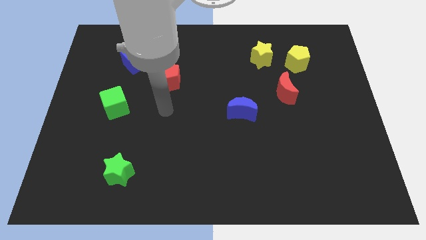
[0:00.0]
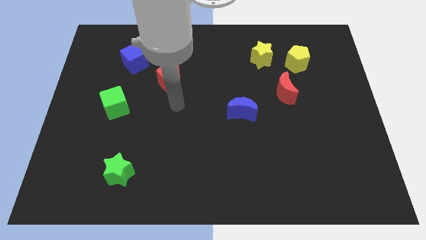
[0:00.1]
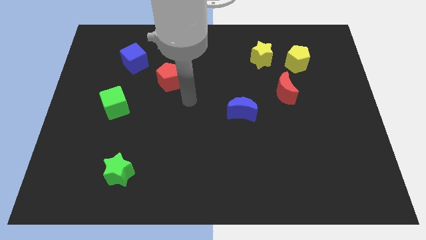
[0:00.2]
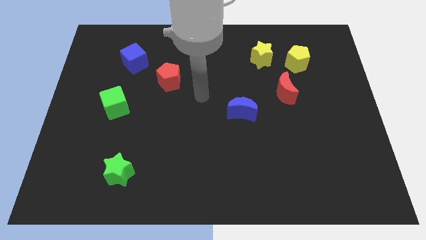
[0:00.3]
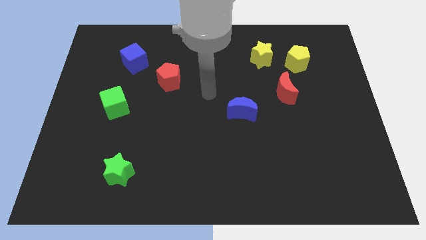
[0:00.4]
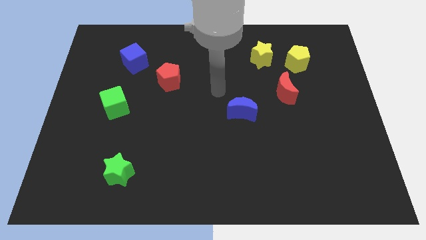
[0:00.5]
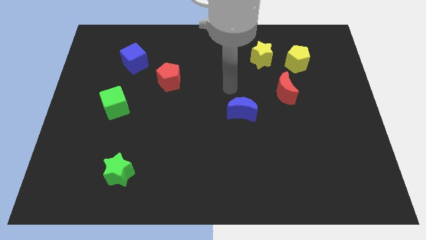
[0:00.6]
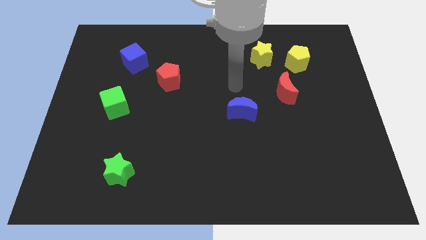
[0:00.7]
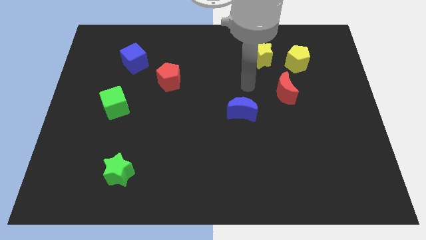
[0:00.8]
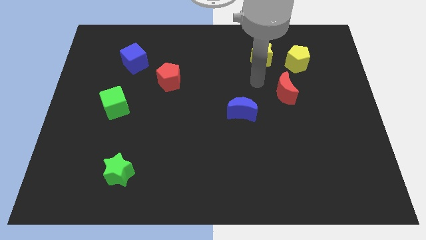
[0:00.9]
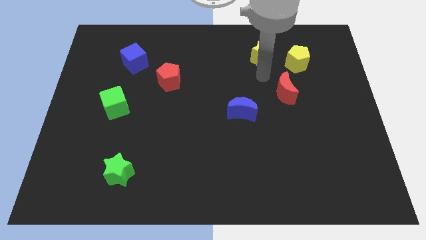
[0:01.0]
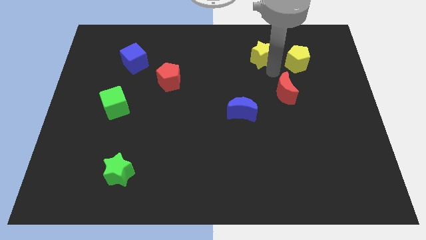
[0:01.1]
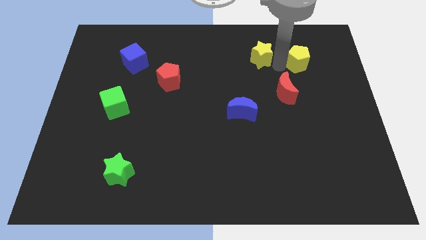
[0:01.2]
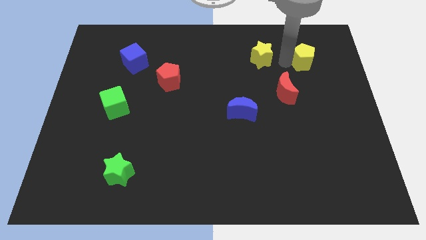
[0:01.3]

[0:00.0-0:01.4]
separate the yellow star from the yellow pentagon

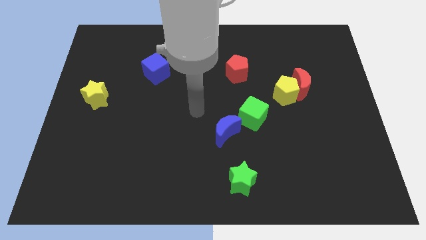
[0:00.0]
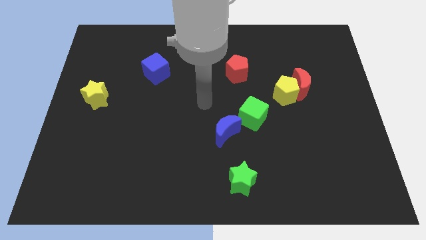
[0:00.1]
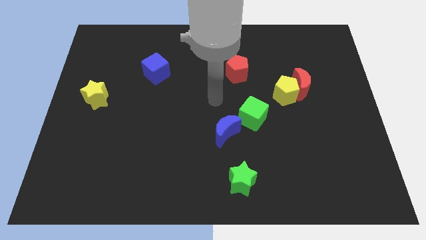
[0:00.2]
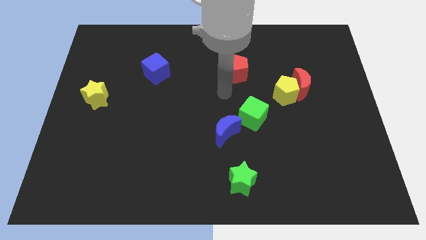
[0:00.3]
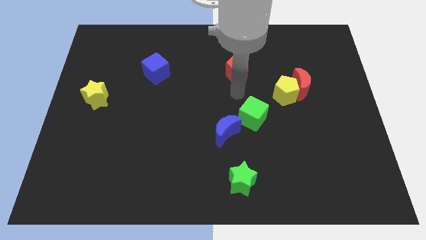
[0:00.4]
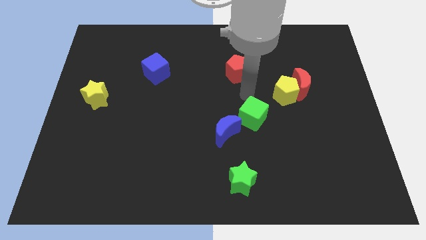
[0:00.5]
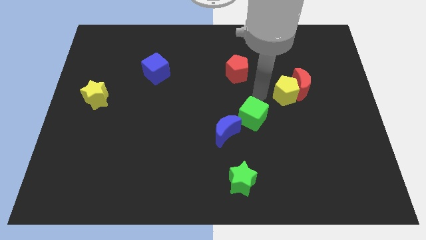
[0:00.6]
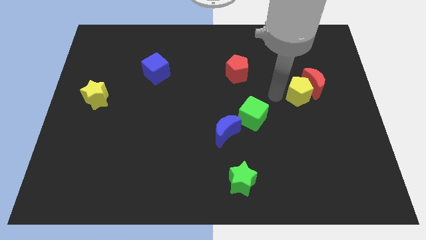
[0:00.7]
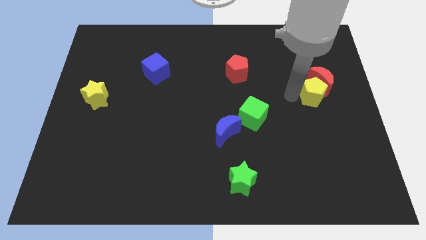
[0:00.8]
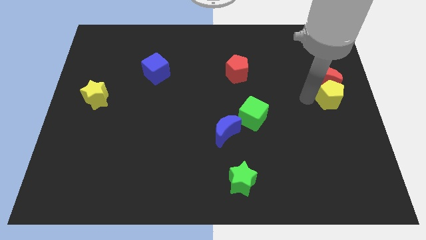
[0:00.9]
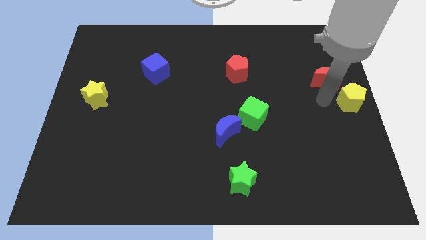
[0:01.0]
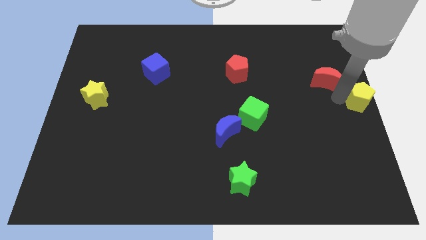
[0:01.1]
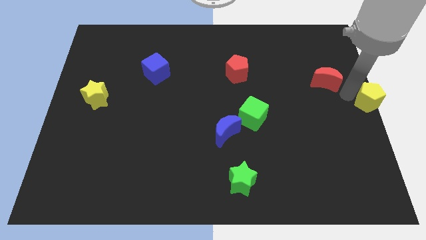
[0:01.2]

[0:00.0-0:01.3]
move the red moon away from the yellow pentagon

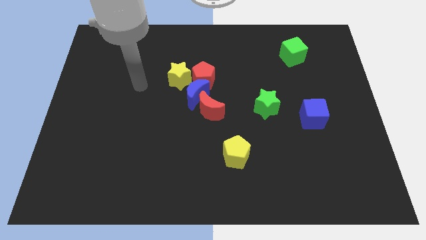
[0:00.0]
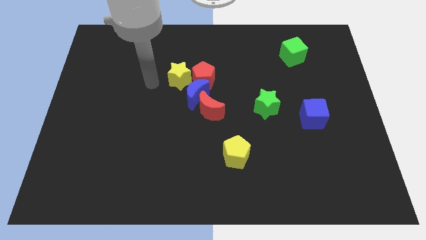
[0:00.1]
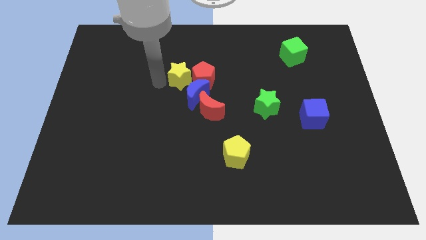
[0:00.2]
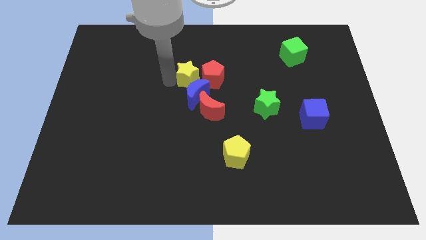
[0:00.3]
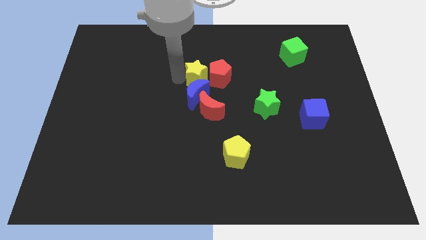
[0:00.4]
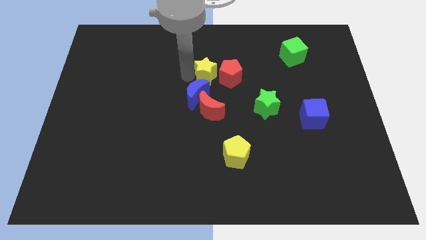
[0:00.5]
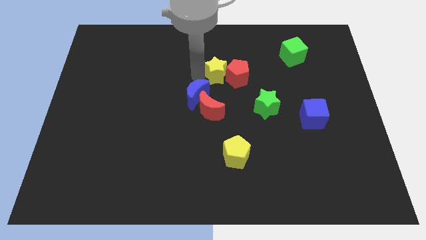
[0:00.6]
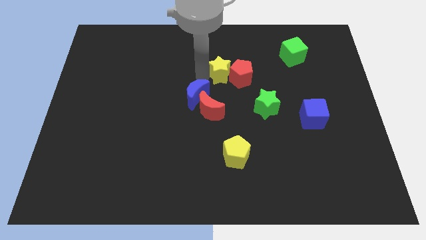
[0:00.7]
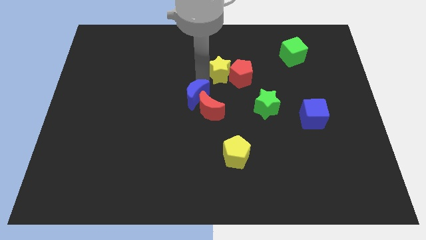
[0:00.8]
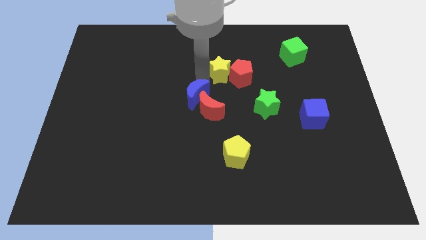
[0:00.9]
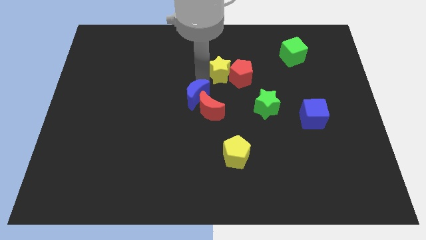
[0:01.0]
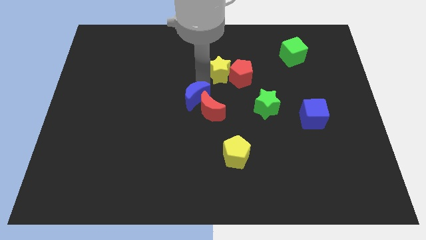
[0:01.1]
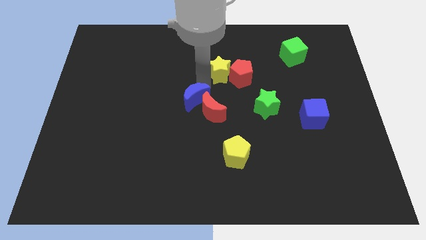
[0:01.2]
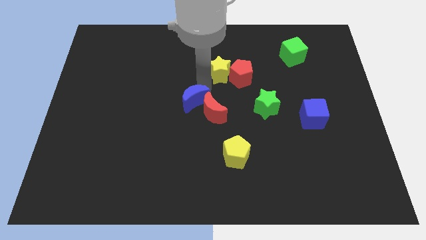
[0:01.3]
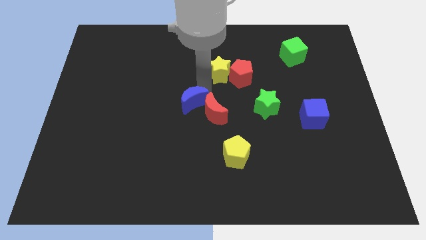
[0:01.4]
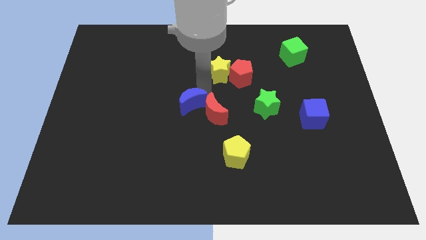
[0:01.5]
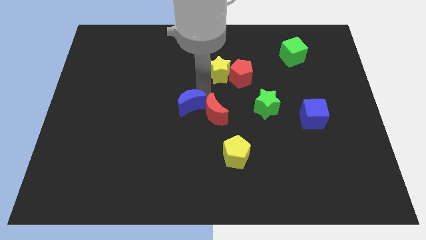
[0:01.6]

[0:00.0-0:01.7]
pull the blue moon apart from the red moon, red pentagon, and yellow star

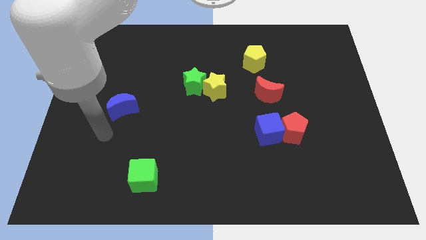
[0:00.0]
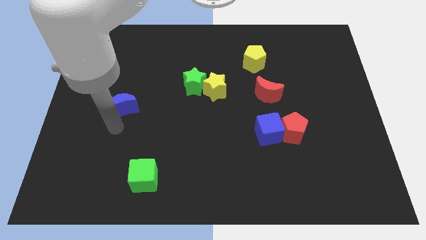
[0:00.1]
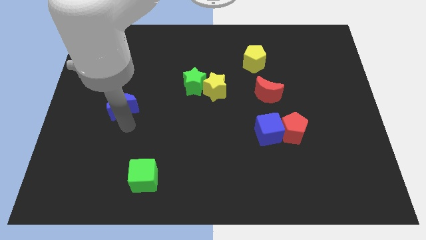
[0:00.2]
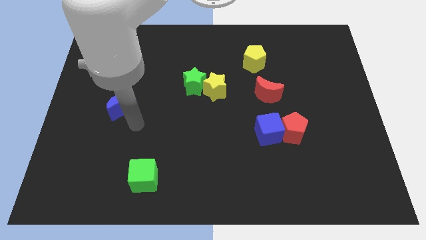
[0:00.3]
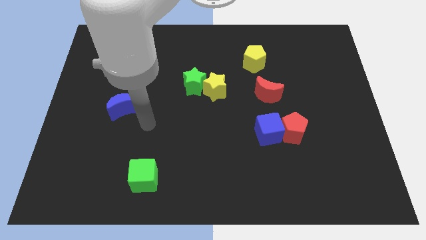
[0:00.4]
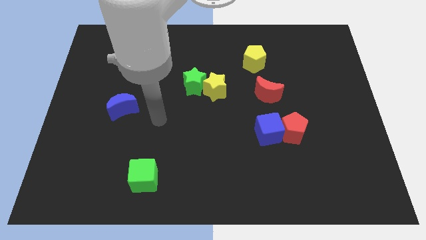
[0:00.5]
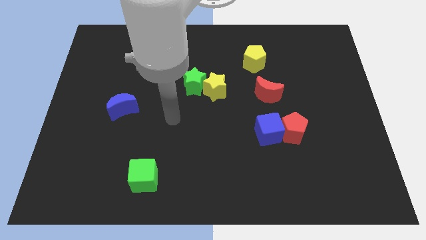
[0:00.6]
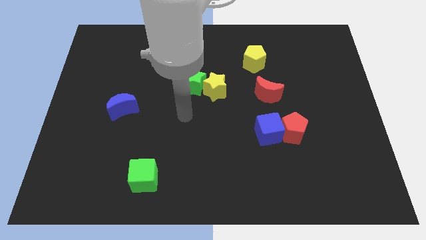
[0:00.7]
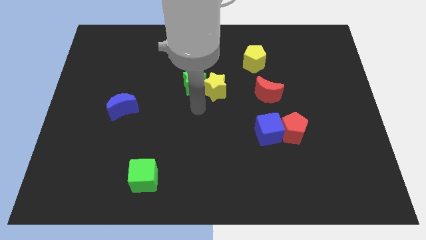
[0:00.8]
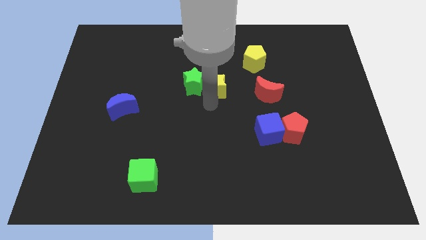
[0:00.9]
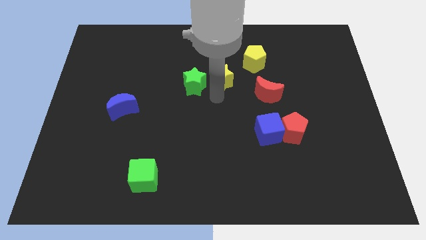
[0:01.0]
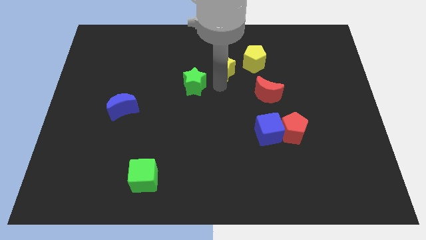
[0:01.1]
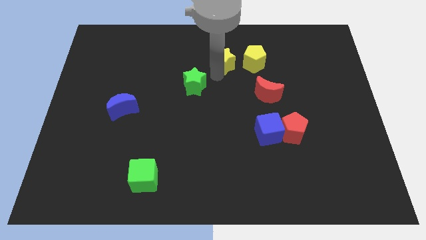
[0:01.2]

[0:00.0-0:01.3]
separate the green star from the yellow star

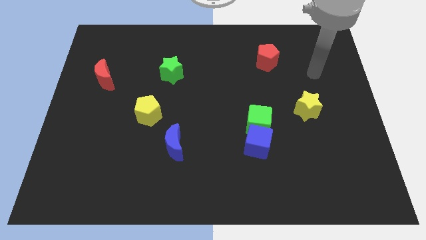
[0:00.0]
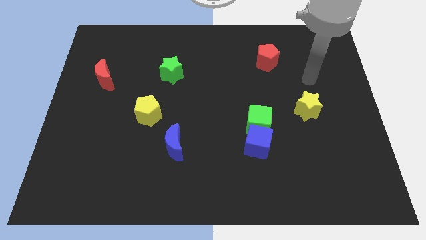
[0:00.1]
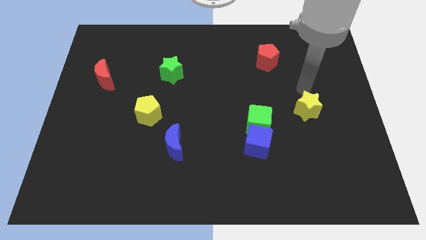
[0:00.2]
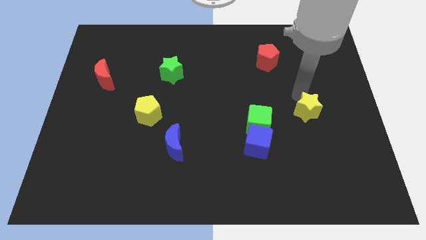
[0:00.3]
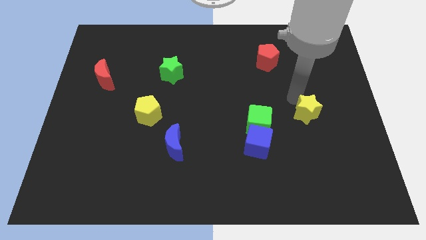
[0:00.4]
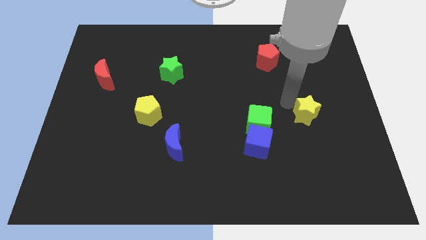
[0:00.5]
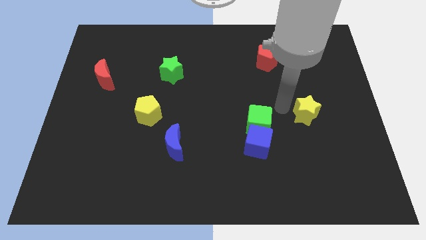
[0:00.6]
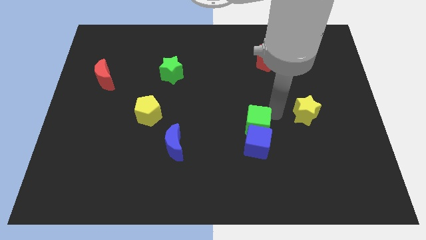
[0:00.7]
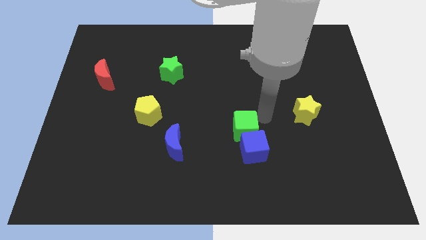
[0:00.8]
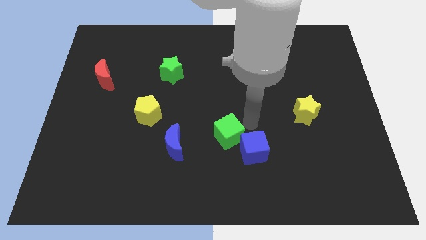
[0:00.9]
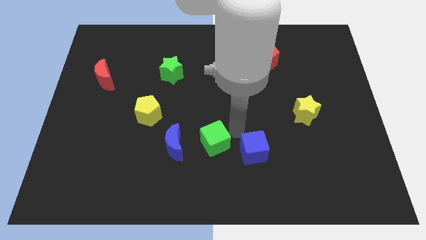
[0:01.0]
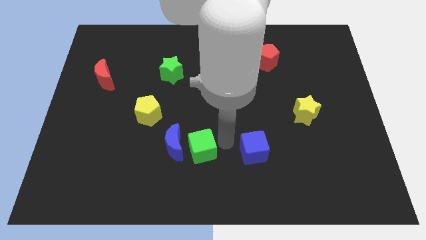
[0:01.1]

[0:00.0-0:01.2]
move the blue cube away from the green cube

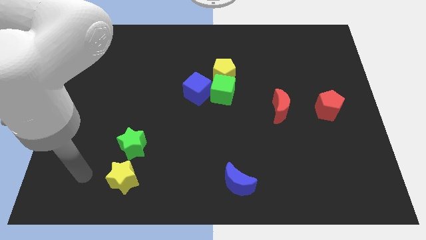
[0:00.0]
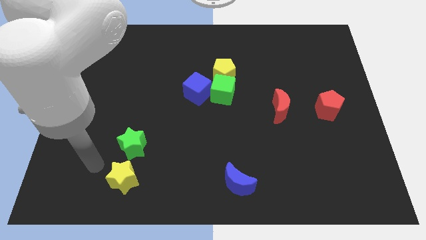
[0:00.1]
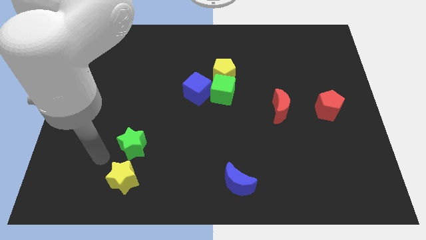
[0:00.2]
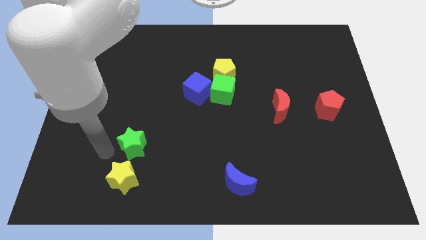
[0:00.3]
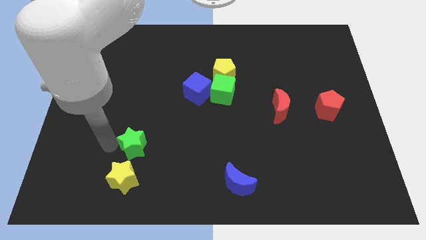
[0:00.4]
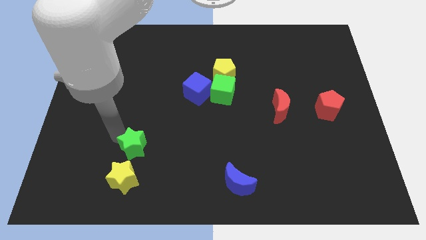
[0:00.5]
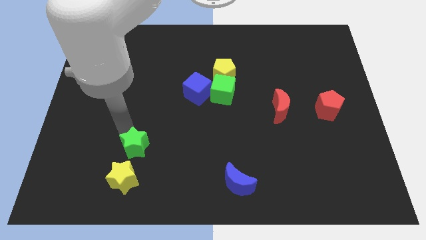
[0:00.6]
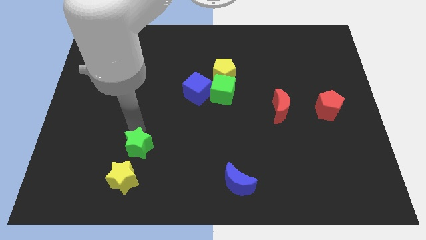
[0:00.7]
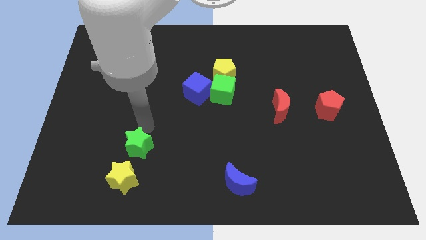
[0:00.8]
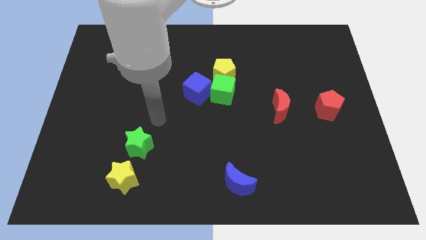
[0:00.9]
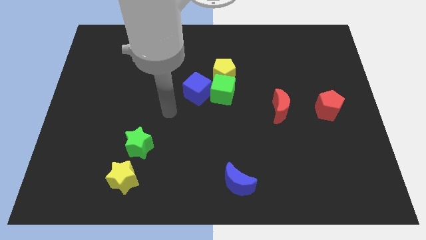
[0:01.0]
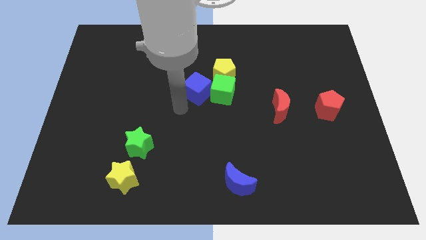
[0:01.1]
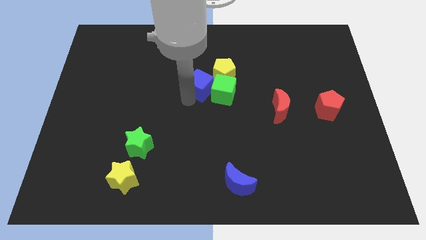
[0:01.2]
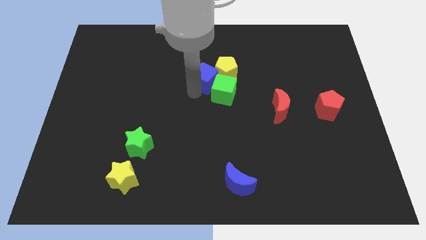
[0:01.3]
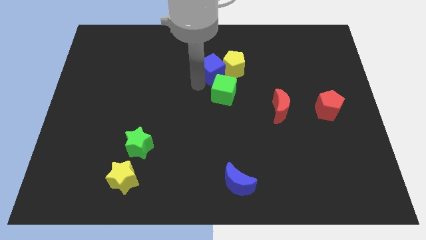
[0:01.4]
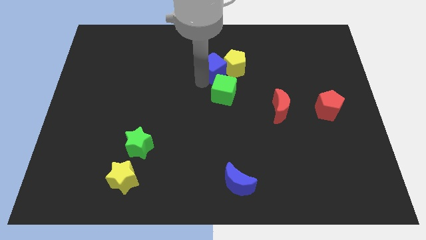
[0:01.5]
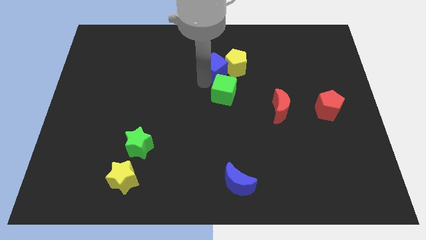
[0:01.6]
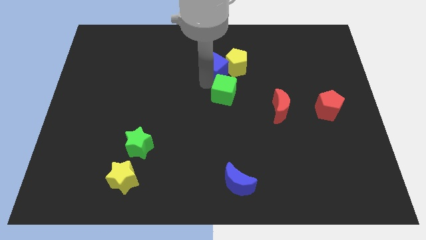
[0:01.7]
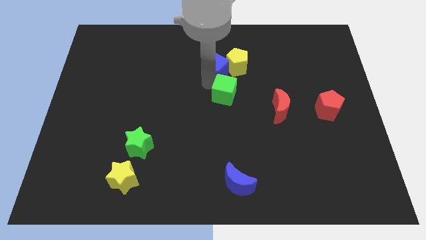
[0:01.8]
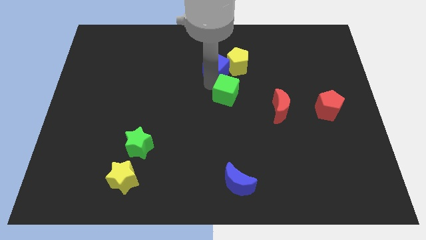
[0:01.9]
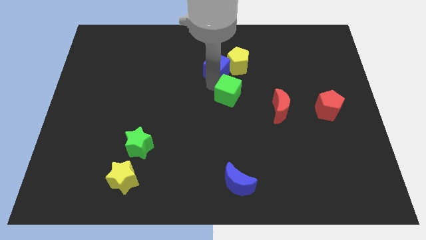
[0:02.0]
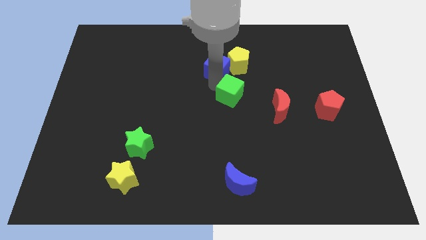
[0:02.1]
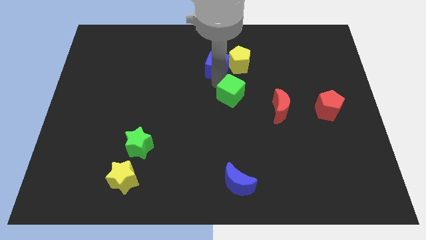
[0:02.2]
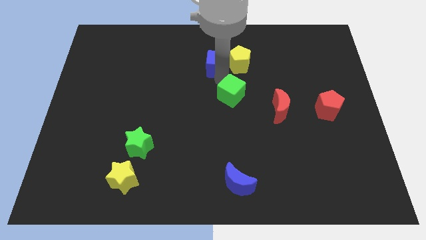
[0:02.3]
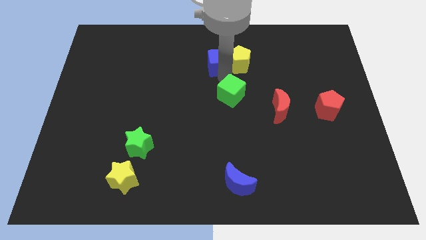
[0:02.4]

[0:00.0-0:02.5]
pull the green cube apart from the yellow pentagon and blue cube
